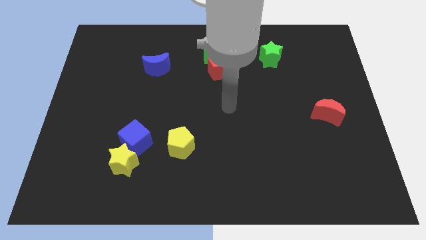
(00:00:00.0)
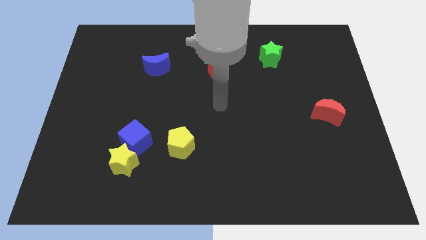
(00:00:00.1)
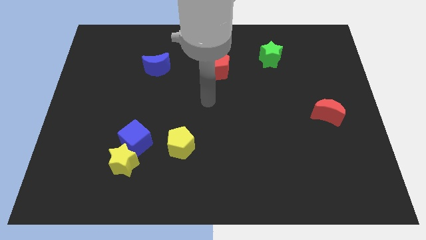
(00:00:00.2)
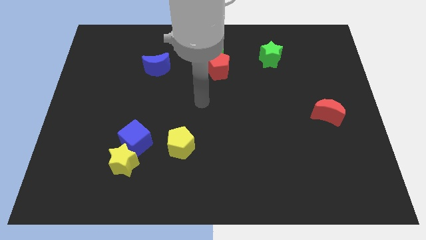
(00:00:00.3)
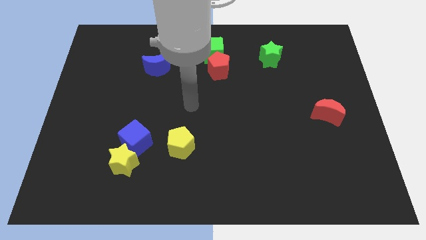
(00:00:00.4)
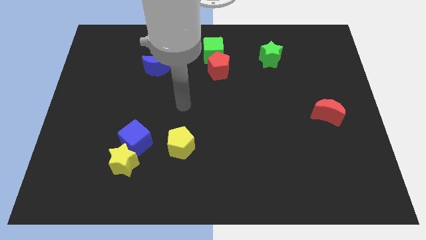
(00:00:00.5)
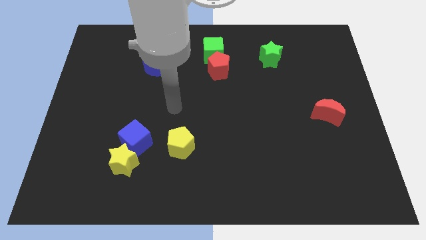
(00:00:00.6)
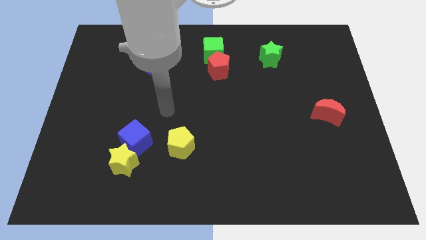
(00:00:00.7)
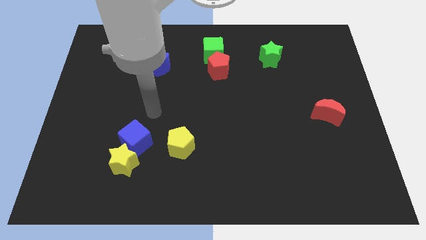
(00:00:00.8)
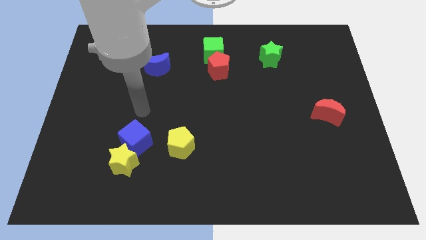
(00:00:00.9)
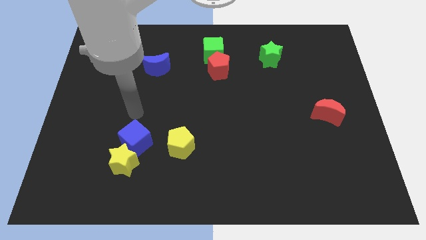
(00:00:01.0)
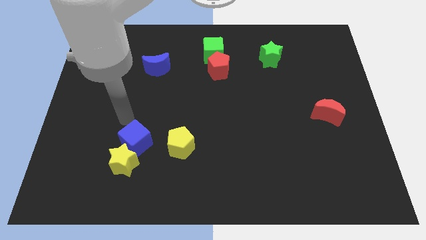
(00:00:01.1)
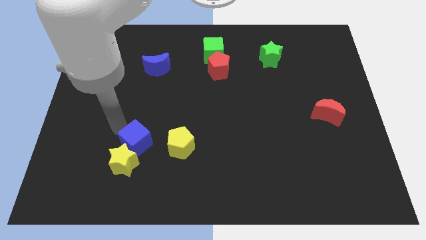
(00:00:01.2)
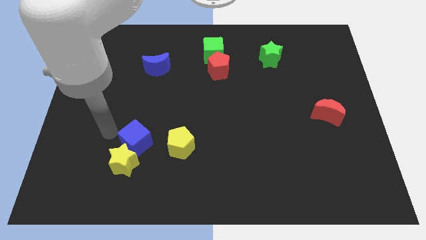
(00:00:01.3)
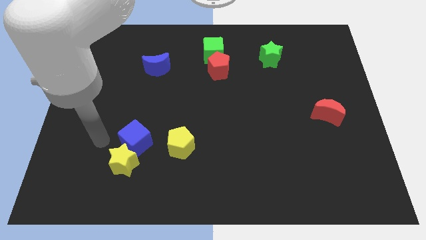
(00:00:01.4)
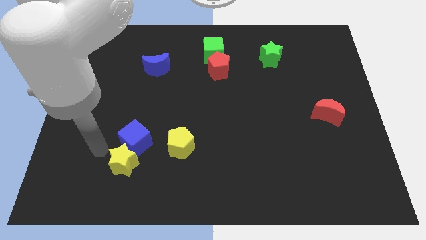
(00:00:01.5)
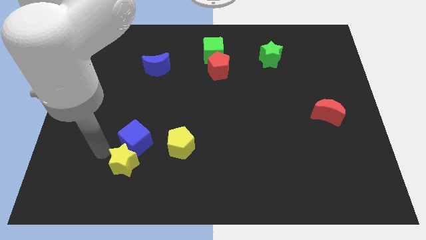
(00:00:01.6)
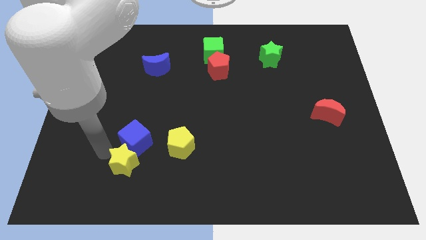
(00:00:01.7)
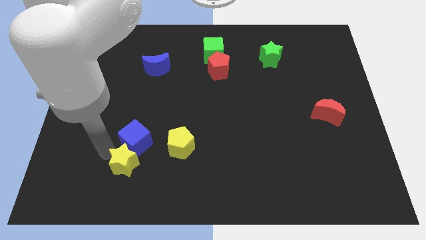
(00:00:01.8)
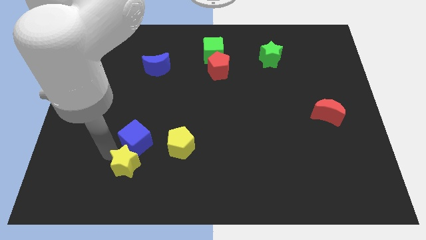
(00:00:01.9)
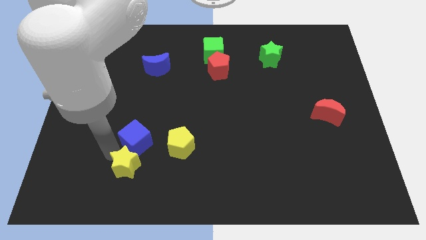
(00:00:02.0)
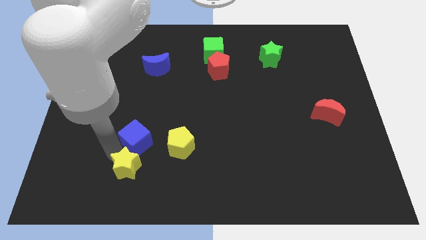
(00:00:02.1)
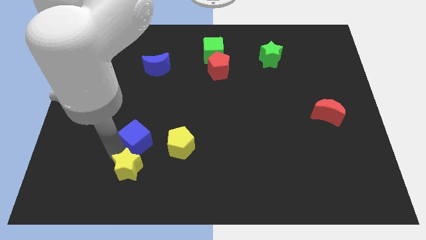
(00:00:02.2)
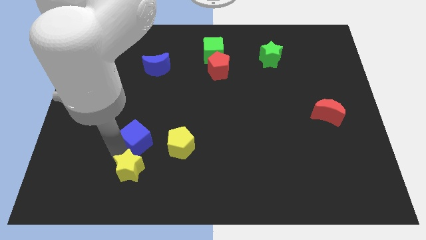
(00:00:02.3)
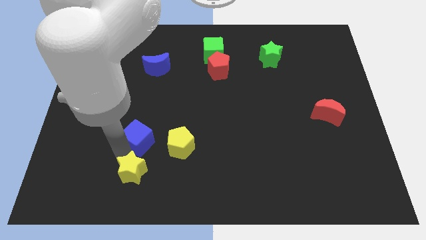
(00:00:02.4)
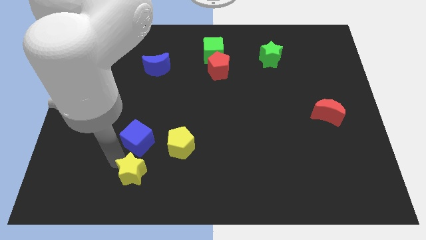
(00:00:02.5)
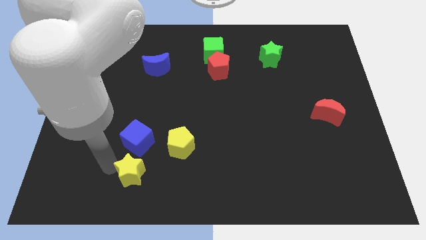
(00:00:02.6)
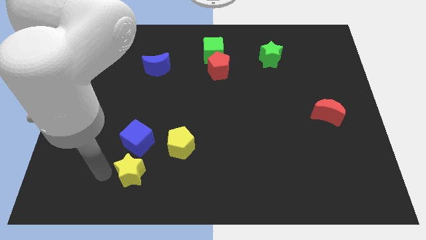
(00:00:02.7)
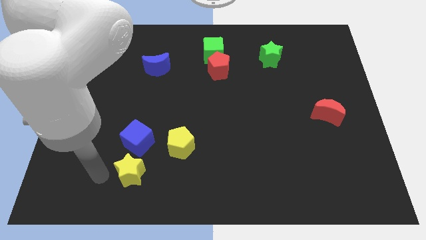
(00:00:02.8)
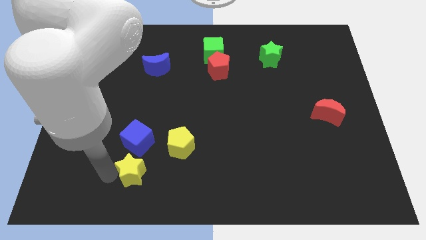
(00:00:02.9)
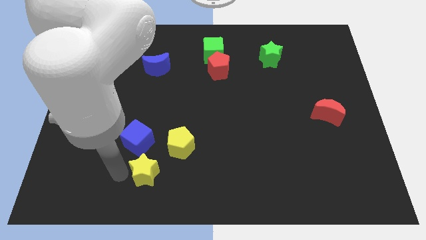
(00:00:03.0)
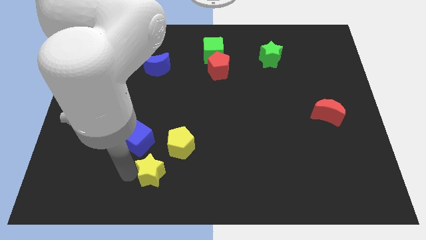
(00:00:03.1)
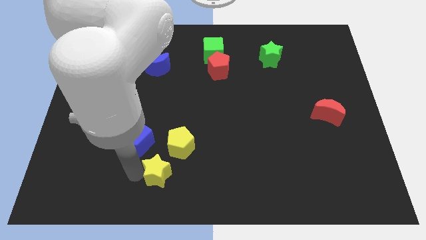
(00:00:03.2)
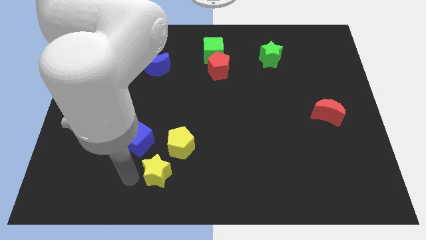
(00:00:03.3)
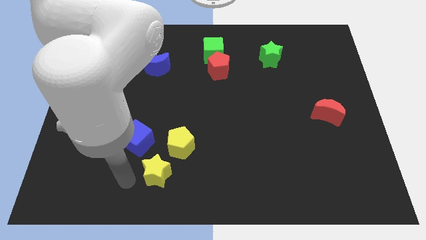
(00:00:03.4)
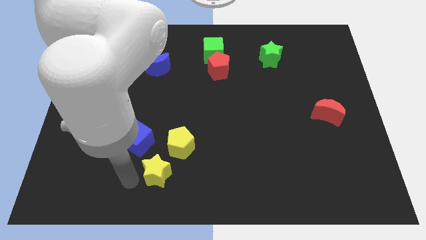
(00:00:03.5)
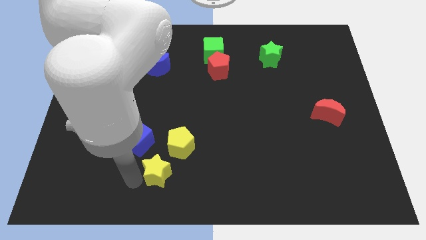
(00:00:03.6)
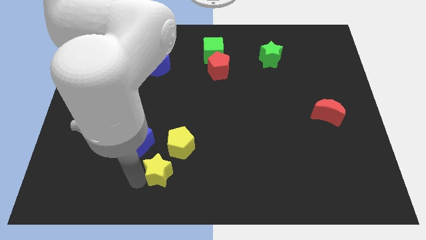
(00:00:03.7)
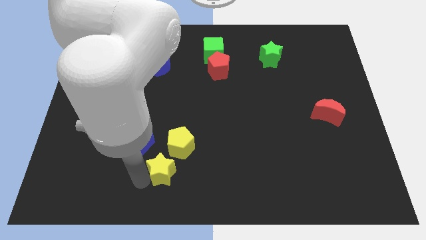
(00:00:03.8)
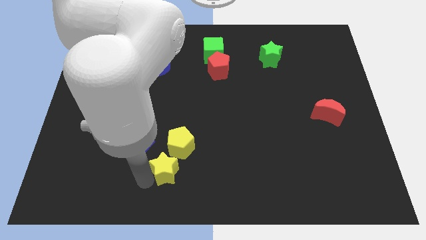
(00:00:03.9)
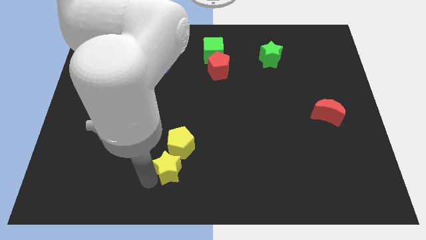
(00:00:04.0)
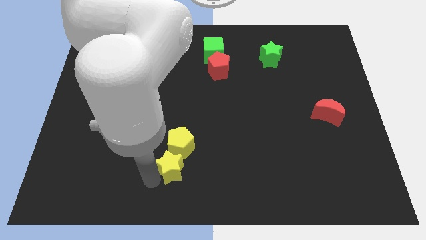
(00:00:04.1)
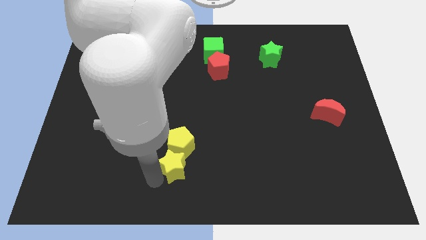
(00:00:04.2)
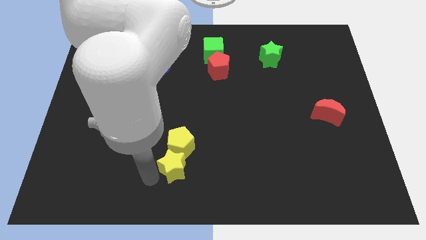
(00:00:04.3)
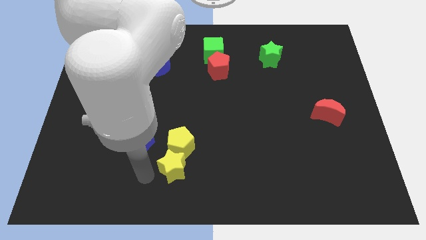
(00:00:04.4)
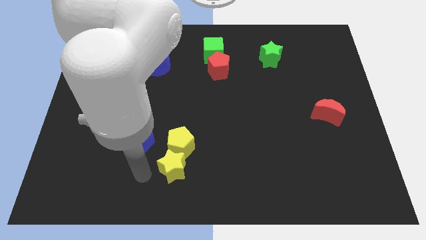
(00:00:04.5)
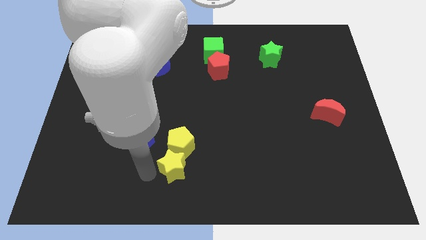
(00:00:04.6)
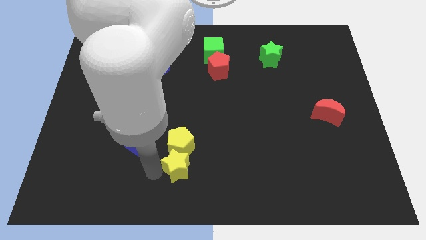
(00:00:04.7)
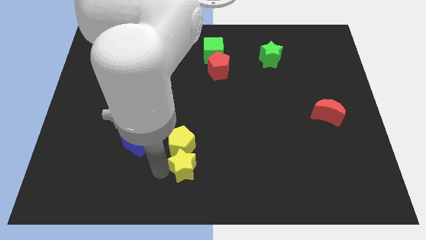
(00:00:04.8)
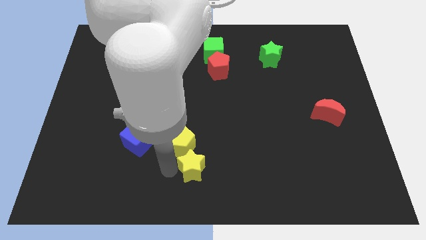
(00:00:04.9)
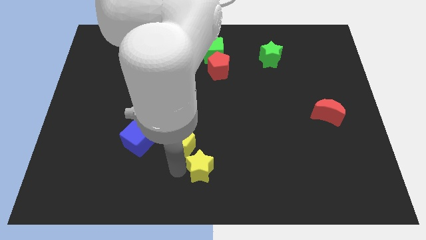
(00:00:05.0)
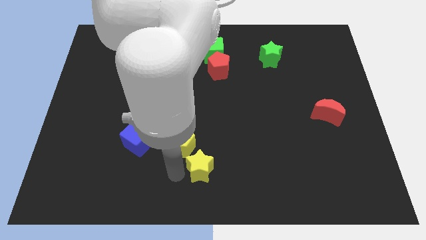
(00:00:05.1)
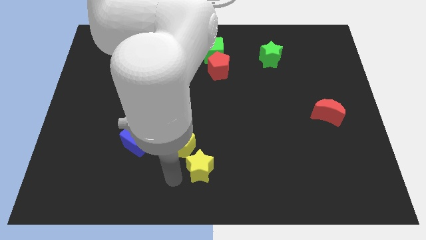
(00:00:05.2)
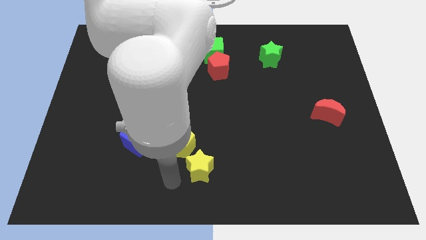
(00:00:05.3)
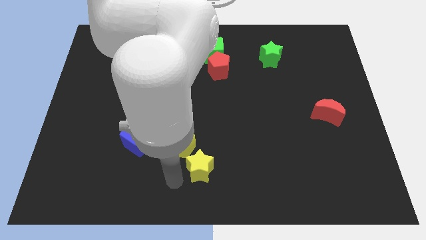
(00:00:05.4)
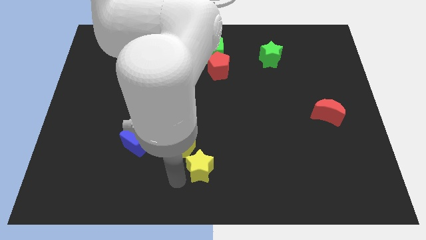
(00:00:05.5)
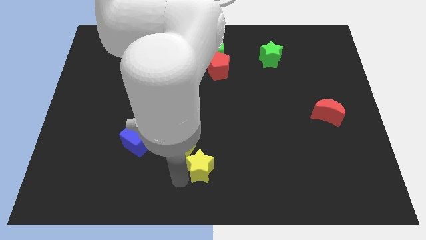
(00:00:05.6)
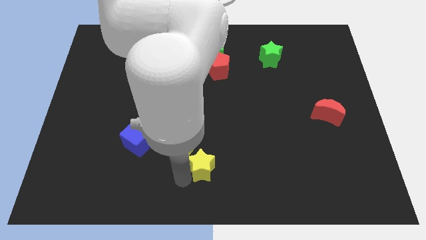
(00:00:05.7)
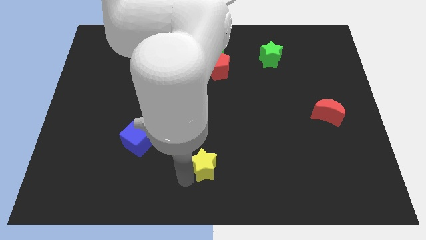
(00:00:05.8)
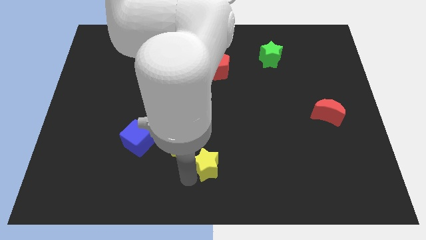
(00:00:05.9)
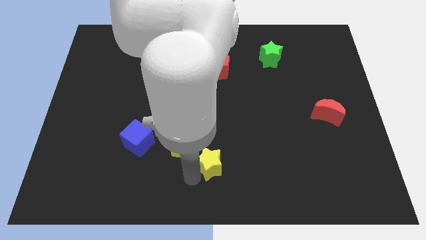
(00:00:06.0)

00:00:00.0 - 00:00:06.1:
move the yellow star to the right side of the yellow pentagon

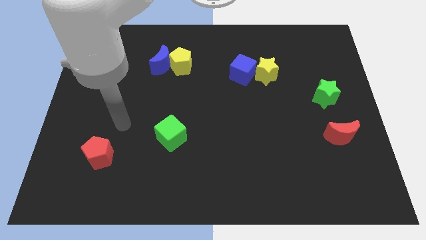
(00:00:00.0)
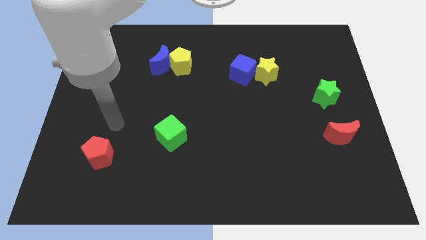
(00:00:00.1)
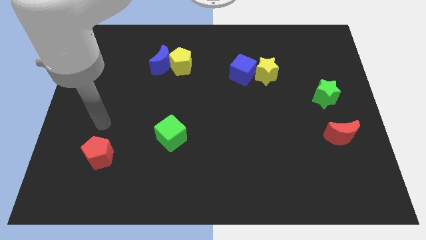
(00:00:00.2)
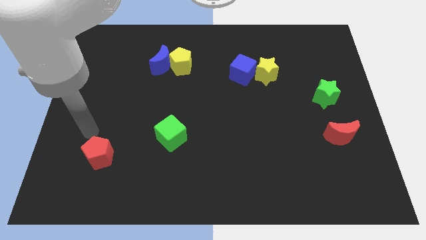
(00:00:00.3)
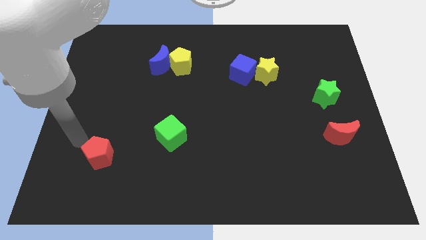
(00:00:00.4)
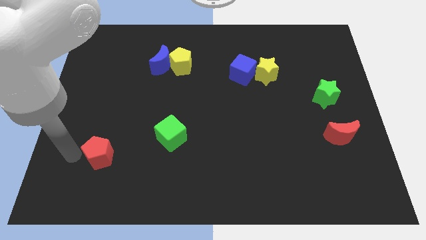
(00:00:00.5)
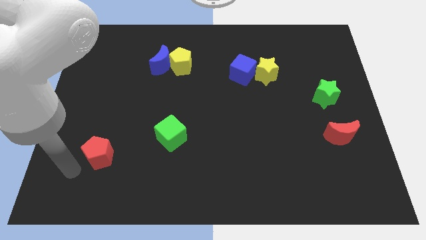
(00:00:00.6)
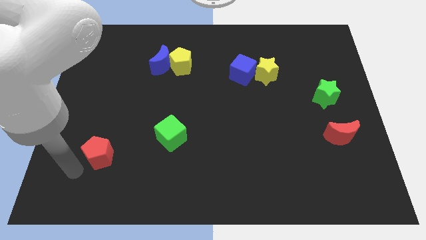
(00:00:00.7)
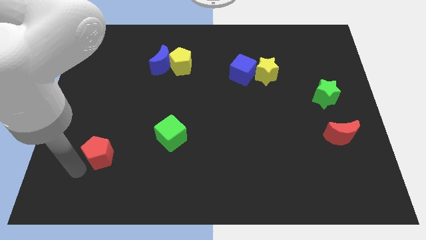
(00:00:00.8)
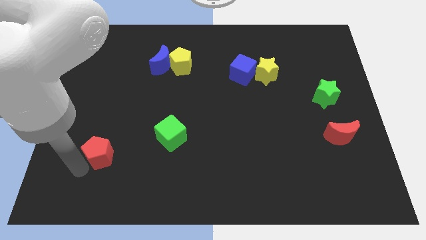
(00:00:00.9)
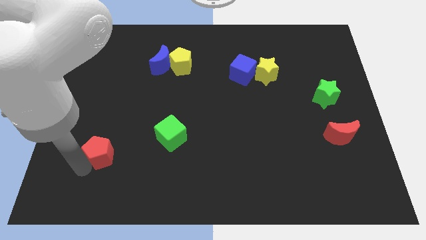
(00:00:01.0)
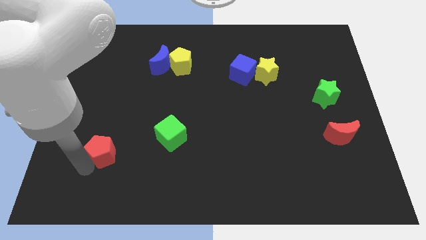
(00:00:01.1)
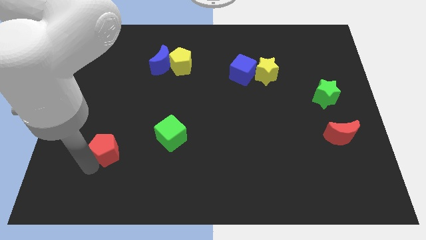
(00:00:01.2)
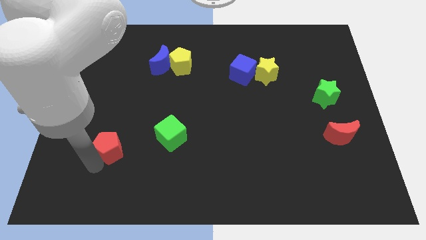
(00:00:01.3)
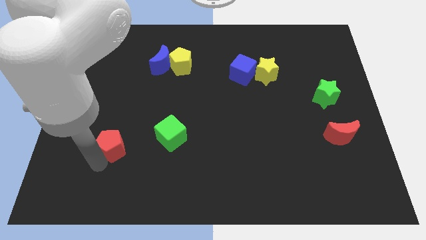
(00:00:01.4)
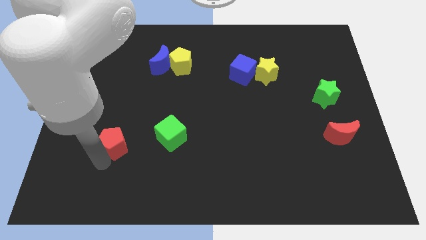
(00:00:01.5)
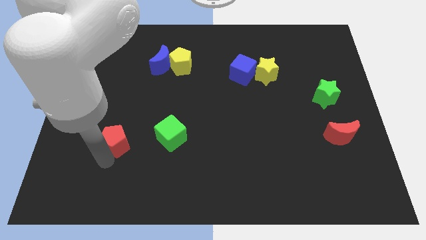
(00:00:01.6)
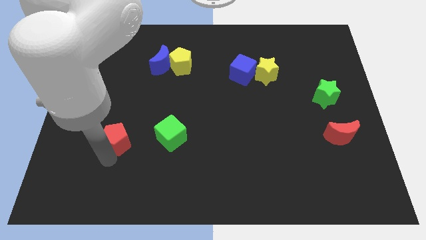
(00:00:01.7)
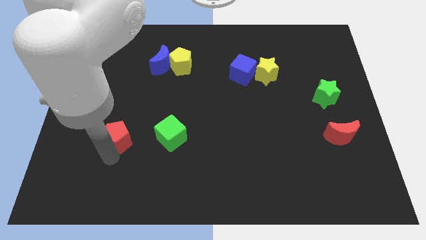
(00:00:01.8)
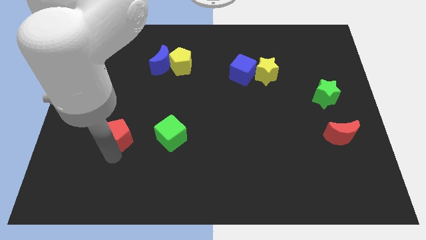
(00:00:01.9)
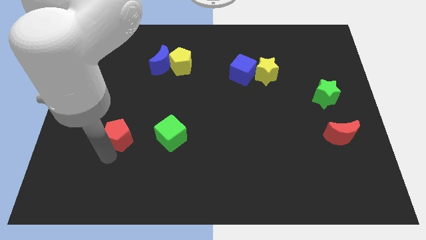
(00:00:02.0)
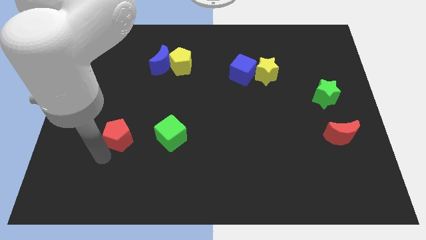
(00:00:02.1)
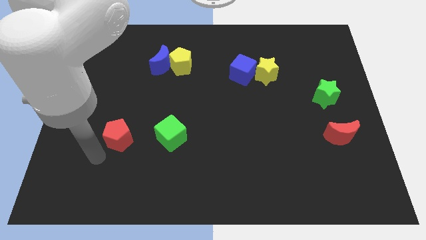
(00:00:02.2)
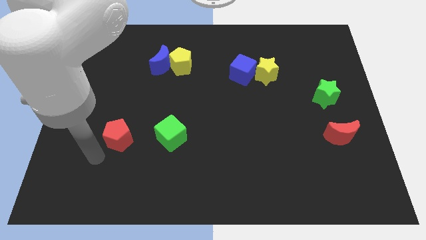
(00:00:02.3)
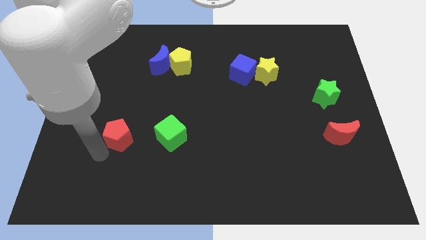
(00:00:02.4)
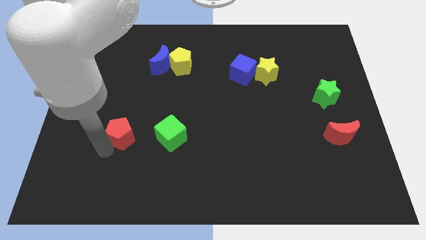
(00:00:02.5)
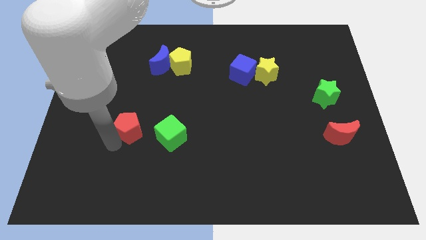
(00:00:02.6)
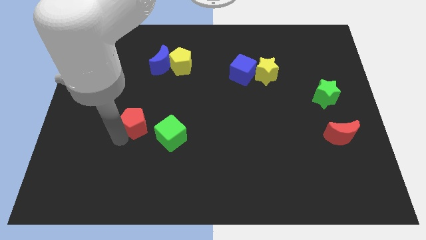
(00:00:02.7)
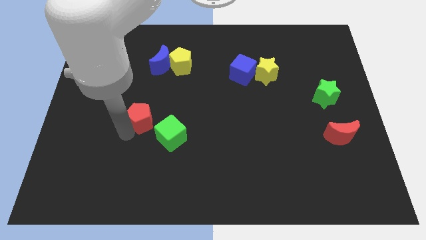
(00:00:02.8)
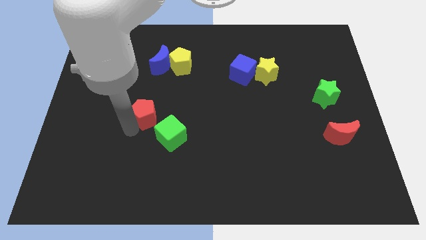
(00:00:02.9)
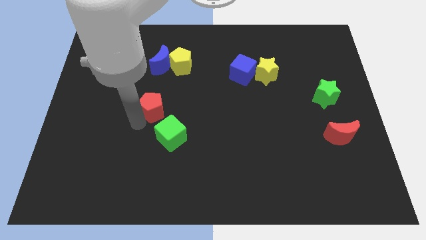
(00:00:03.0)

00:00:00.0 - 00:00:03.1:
push the red pentagon to the top side of the green cube
